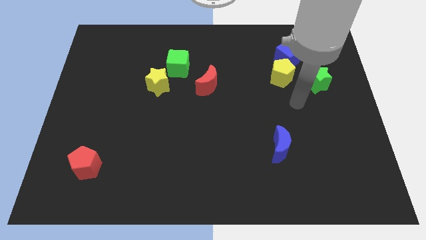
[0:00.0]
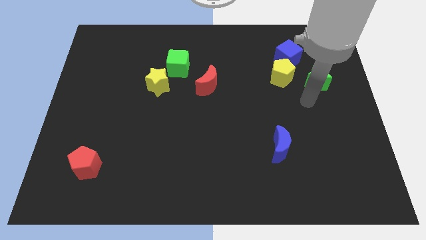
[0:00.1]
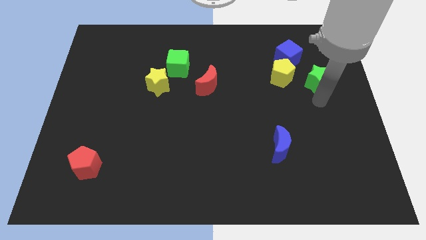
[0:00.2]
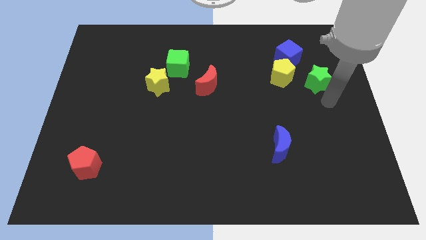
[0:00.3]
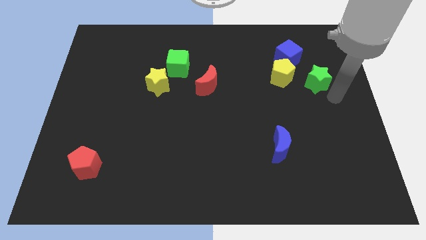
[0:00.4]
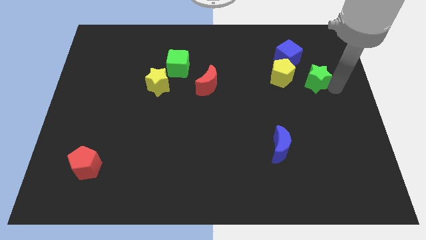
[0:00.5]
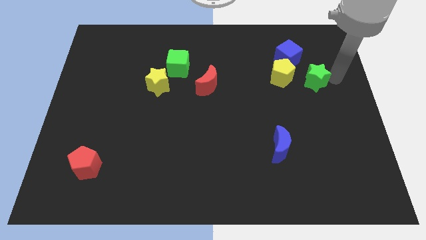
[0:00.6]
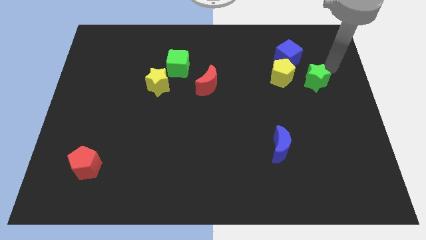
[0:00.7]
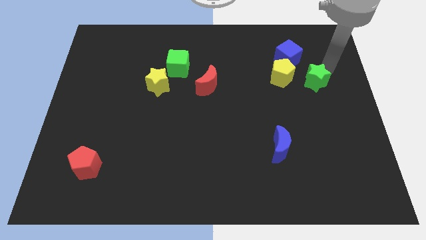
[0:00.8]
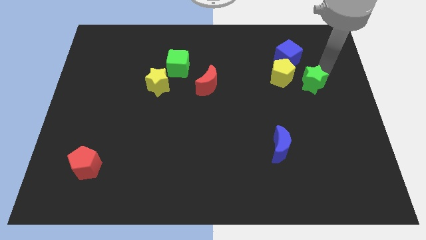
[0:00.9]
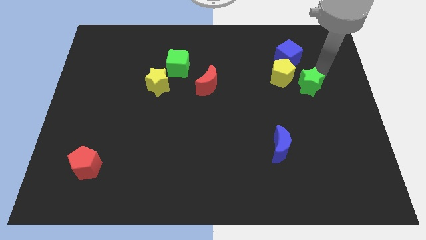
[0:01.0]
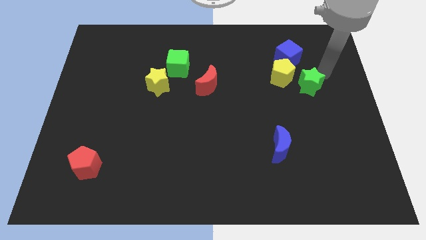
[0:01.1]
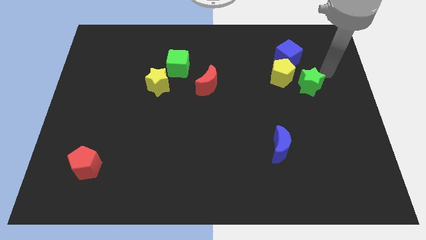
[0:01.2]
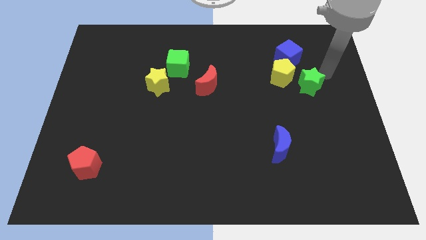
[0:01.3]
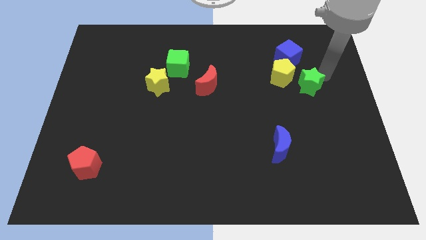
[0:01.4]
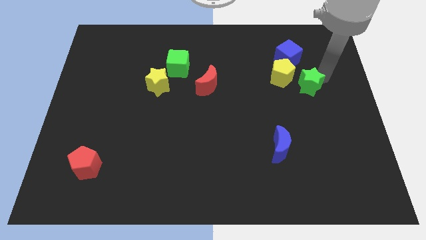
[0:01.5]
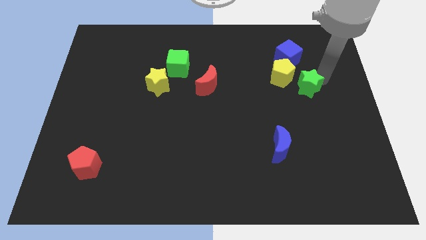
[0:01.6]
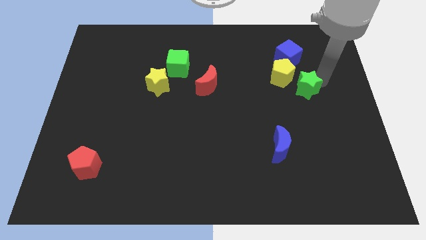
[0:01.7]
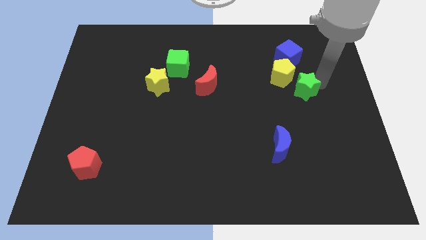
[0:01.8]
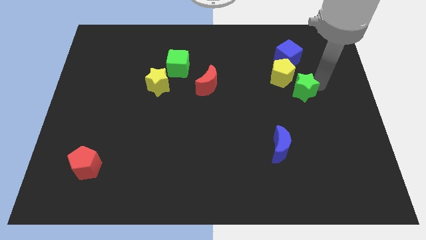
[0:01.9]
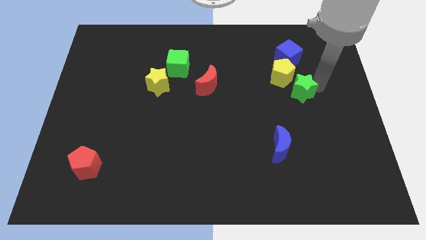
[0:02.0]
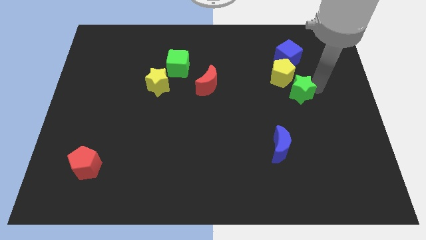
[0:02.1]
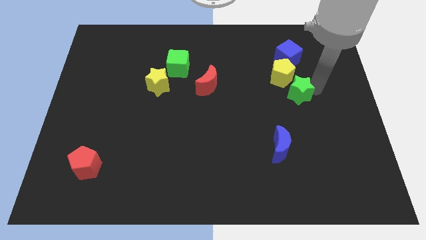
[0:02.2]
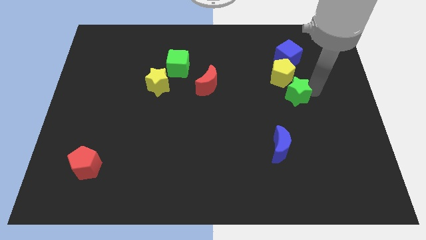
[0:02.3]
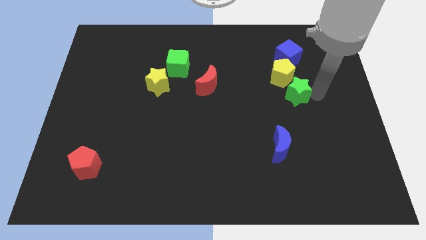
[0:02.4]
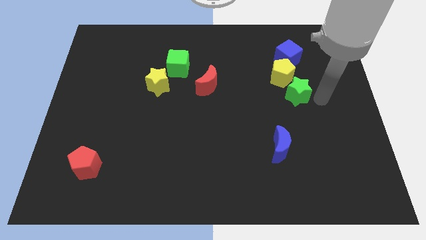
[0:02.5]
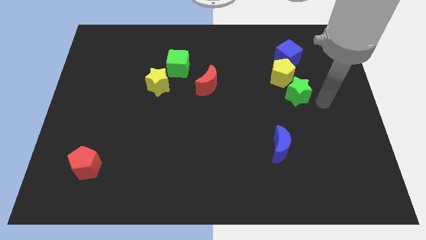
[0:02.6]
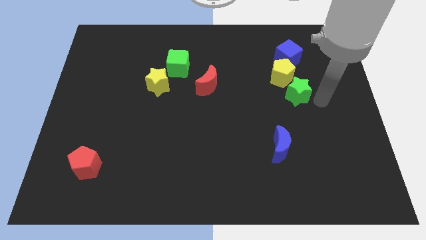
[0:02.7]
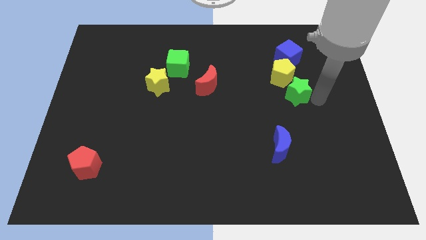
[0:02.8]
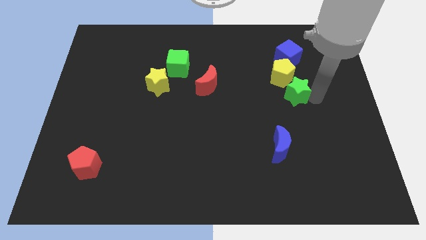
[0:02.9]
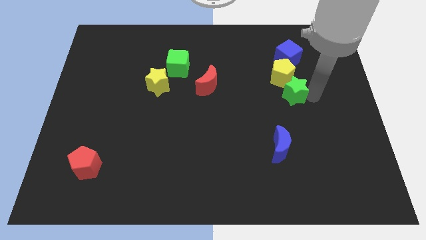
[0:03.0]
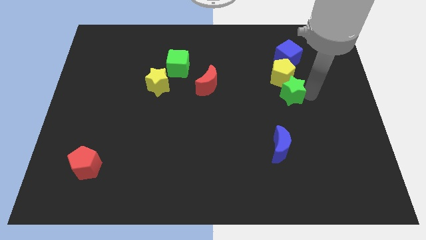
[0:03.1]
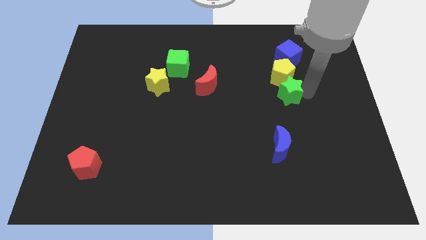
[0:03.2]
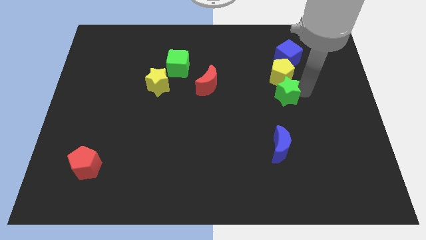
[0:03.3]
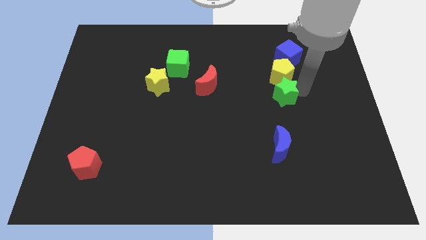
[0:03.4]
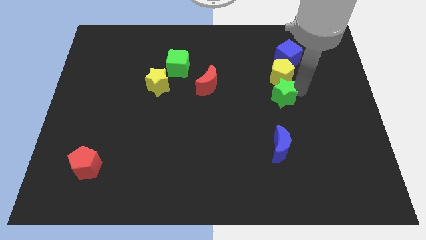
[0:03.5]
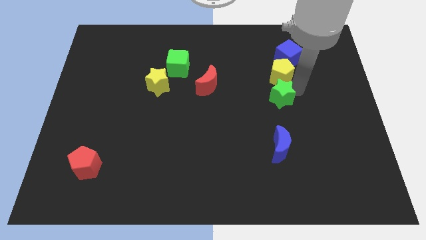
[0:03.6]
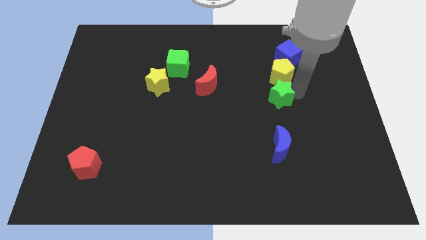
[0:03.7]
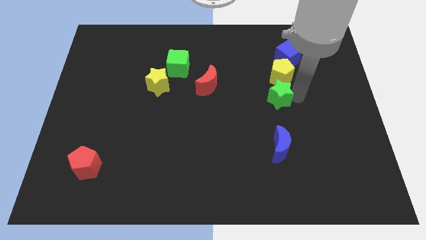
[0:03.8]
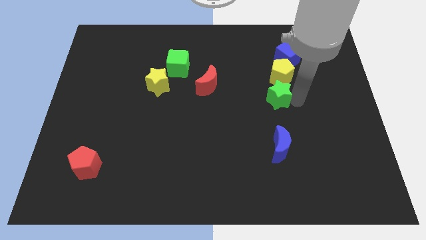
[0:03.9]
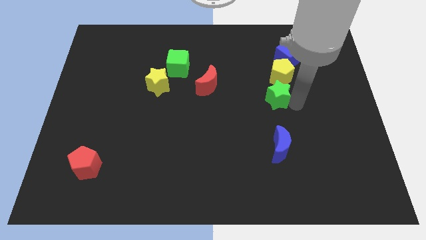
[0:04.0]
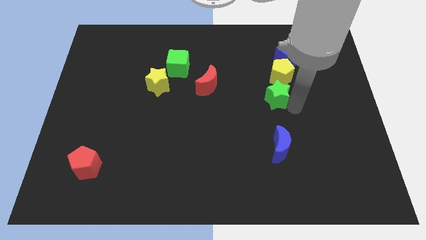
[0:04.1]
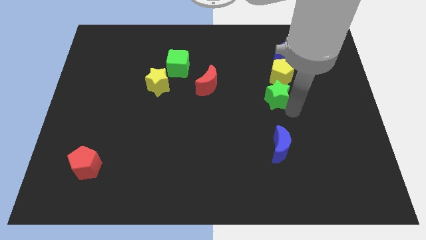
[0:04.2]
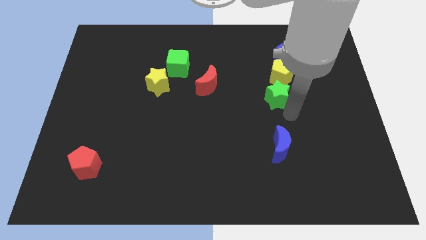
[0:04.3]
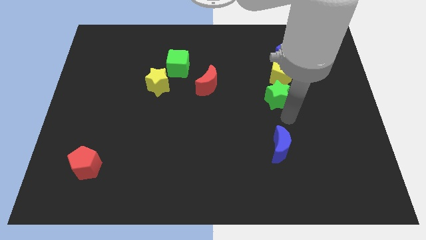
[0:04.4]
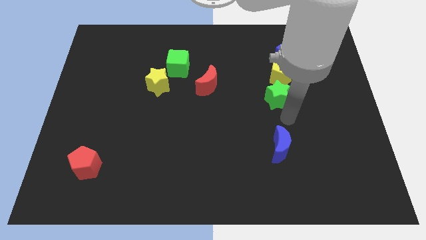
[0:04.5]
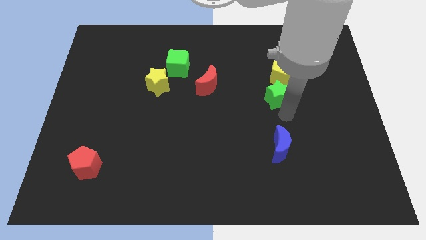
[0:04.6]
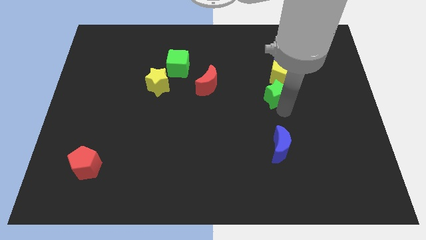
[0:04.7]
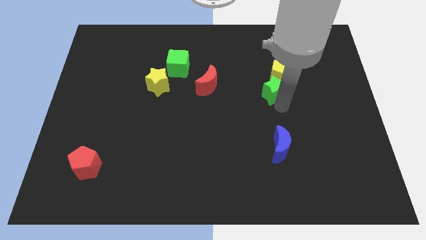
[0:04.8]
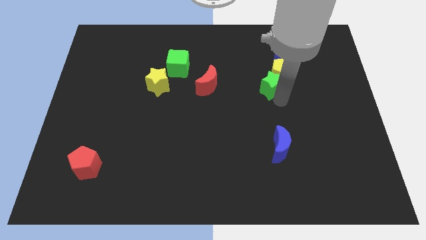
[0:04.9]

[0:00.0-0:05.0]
slide the green star just right of the red moon

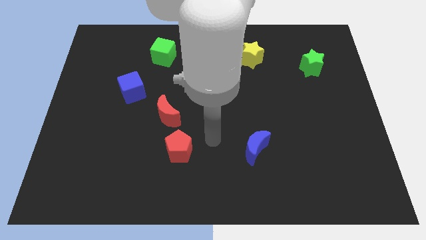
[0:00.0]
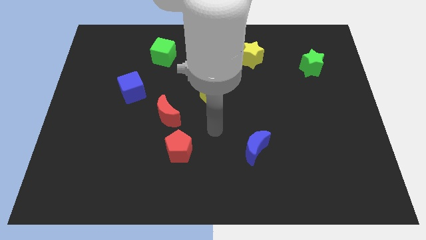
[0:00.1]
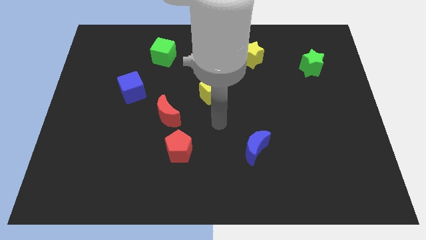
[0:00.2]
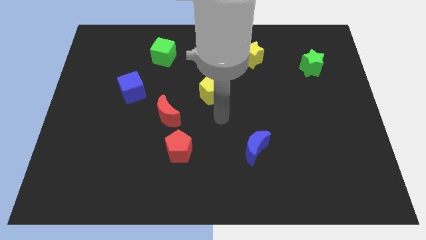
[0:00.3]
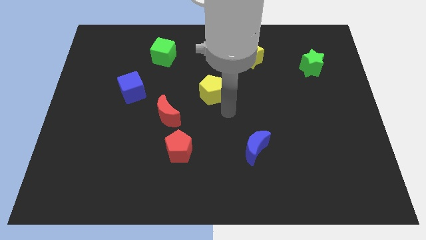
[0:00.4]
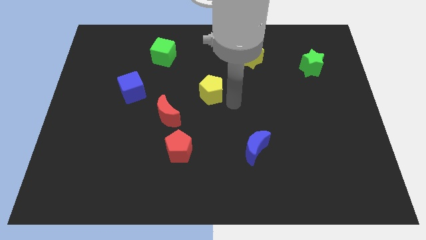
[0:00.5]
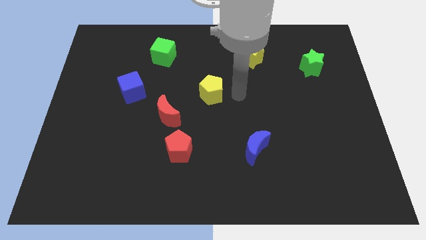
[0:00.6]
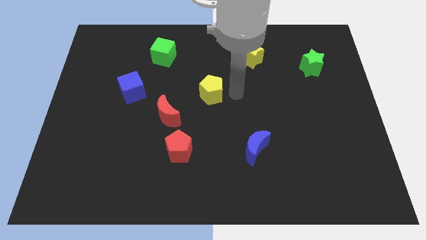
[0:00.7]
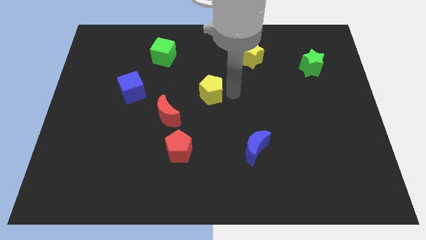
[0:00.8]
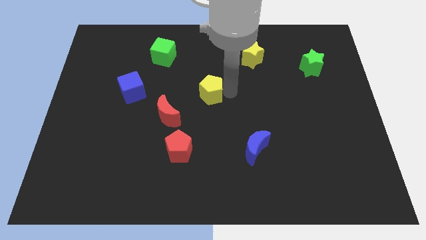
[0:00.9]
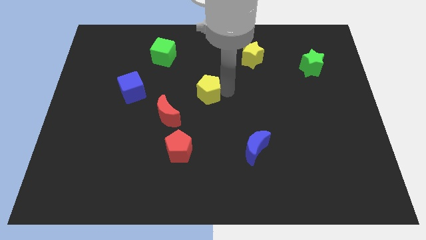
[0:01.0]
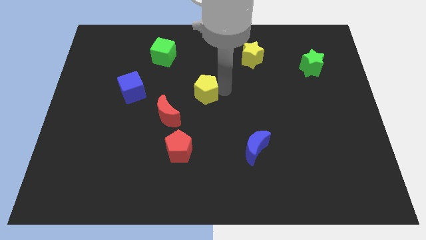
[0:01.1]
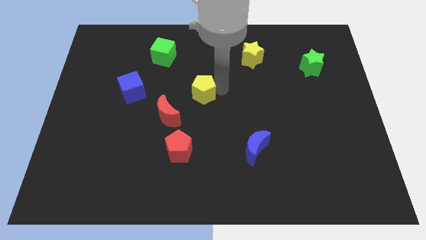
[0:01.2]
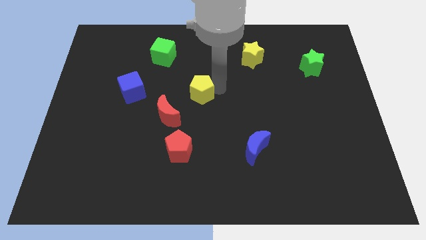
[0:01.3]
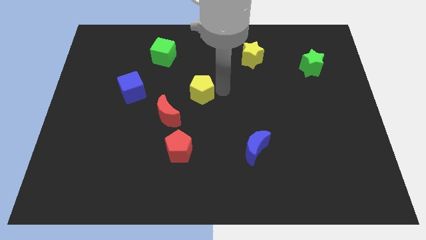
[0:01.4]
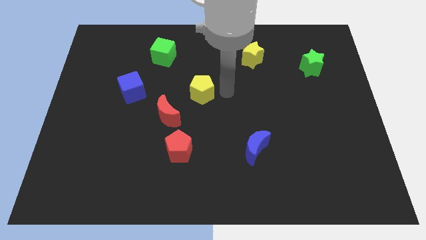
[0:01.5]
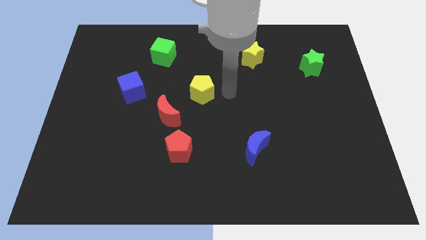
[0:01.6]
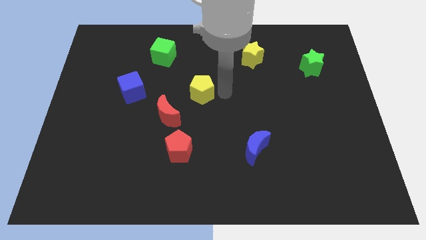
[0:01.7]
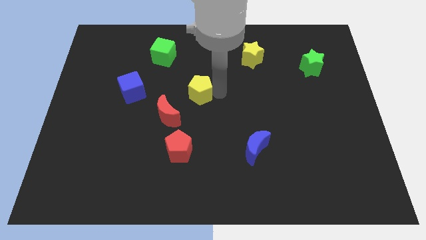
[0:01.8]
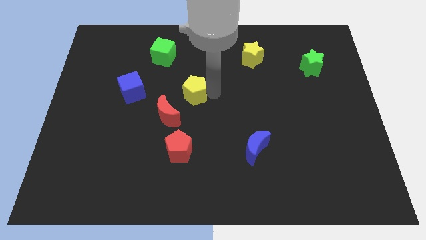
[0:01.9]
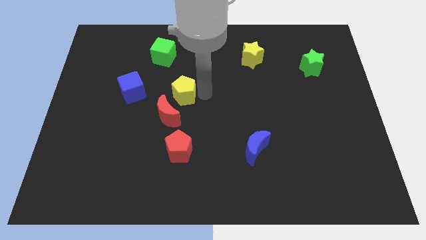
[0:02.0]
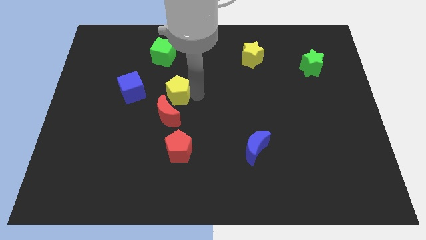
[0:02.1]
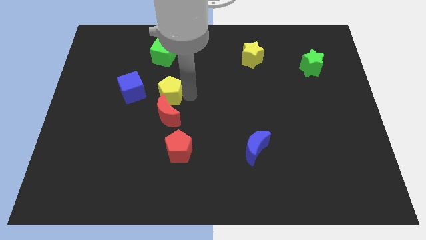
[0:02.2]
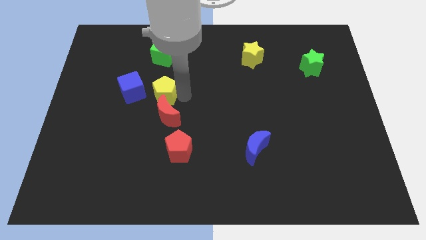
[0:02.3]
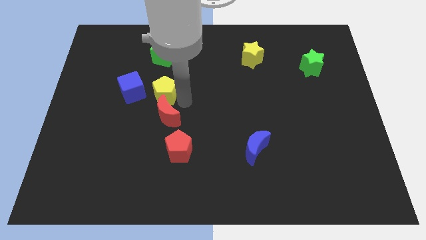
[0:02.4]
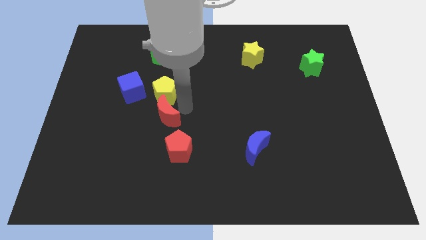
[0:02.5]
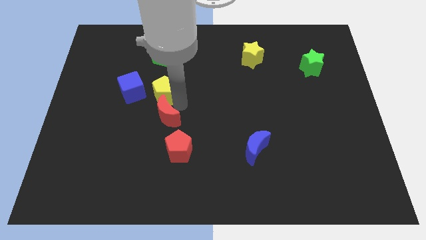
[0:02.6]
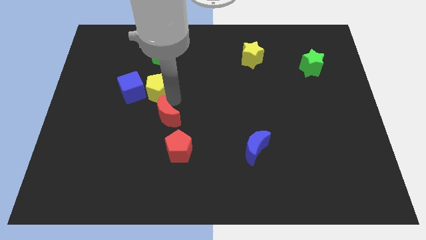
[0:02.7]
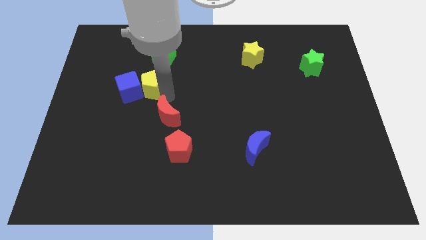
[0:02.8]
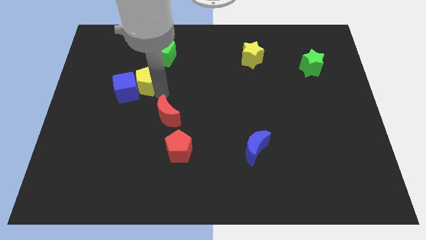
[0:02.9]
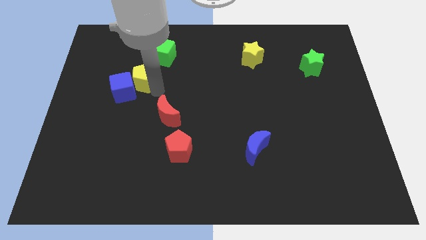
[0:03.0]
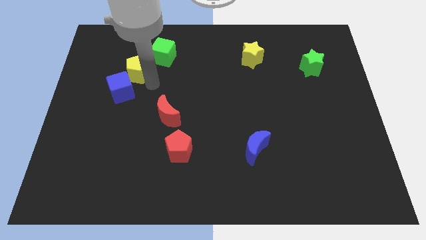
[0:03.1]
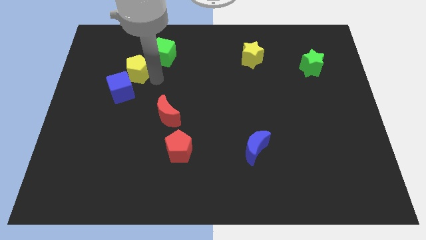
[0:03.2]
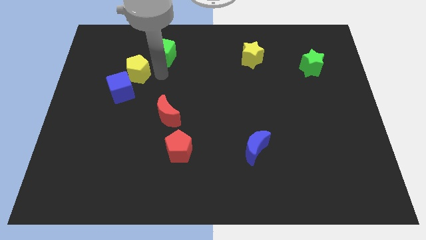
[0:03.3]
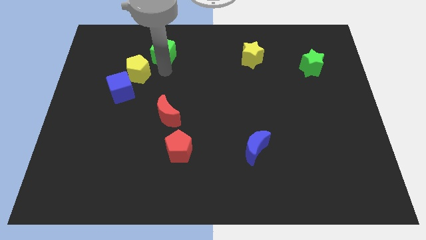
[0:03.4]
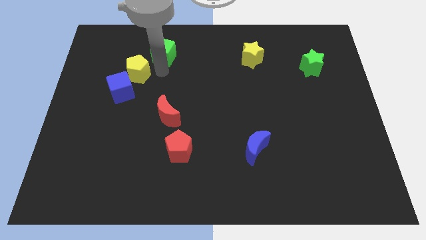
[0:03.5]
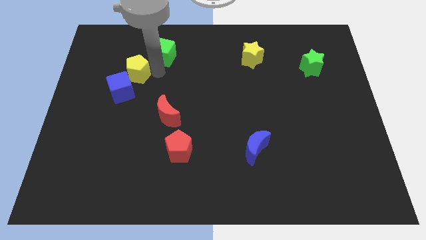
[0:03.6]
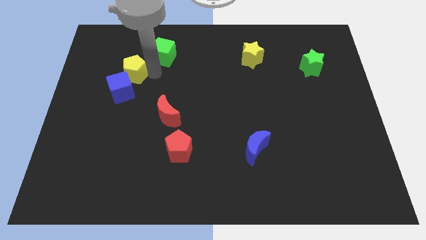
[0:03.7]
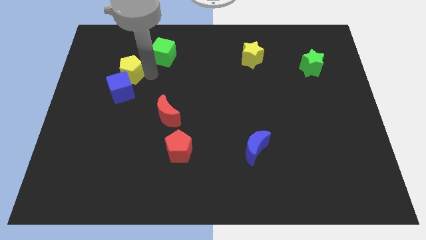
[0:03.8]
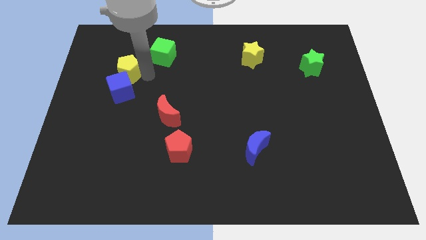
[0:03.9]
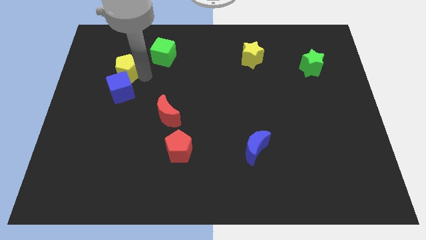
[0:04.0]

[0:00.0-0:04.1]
move the yellow pentagon to the top left of the blue cube
